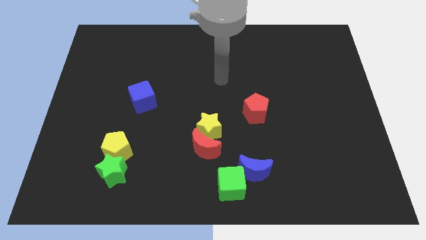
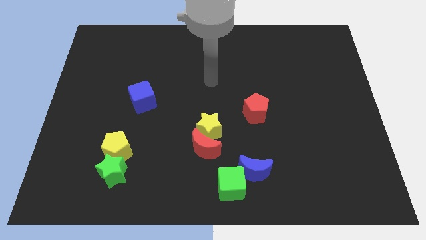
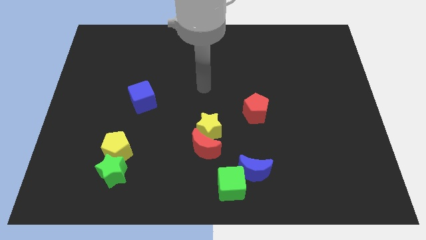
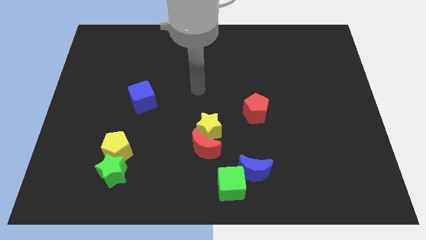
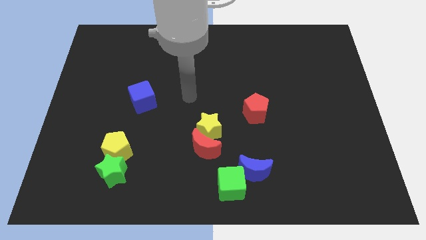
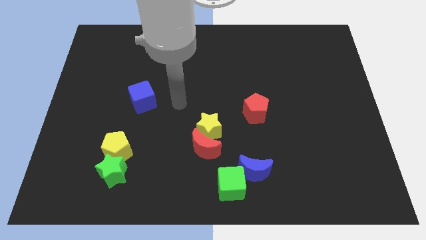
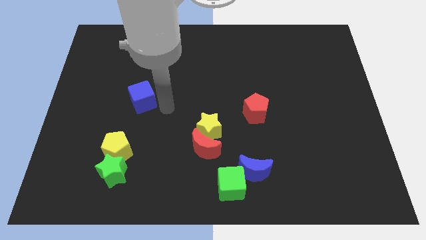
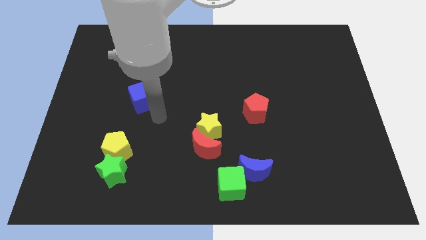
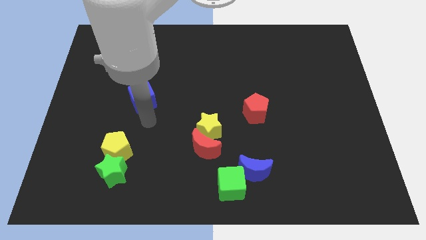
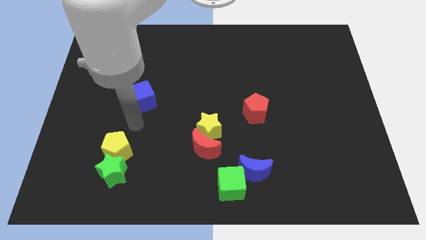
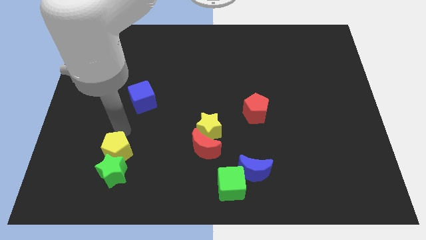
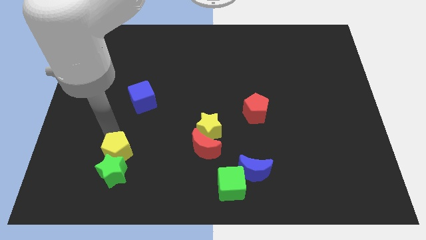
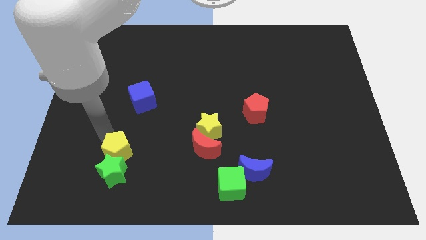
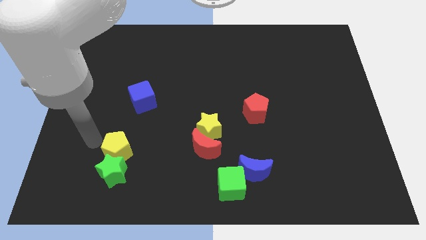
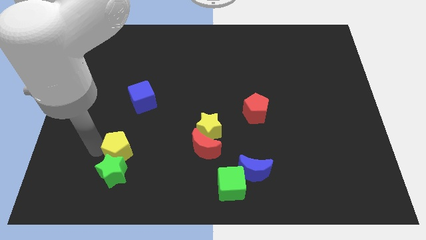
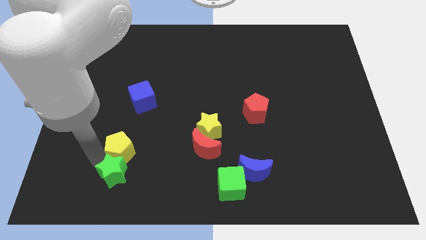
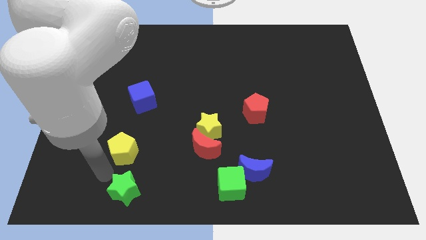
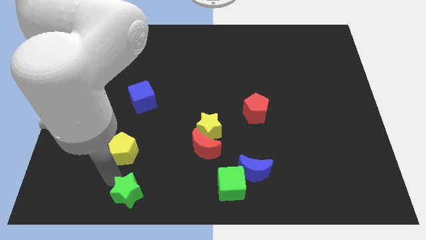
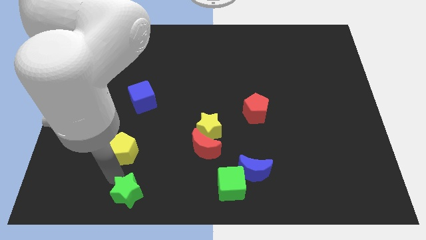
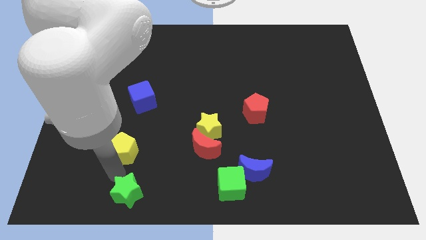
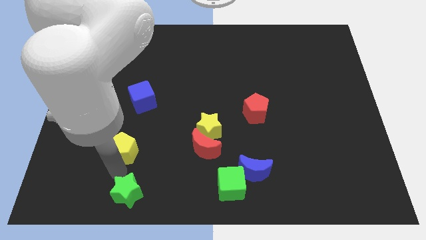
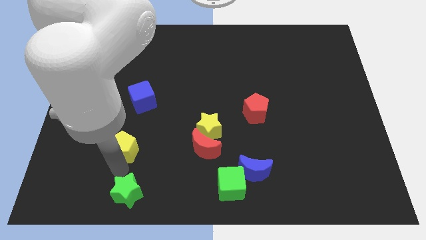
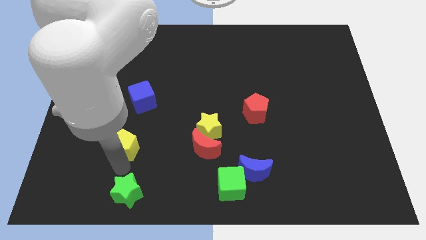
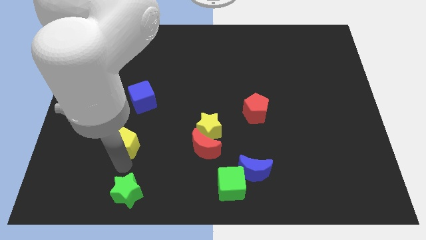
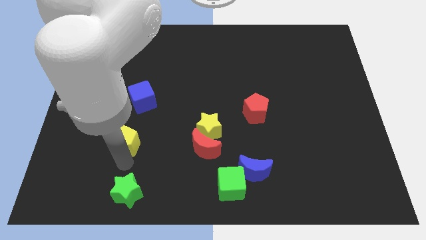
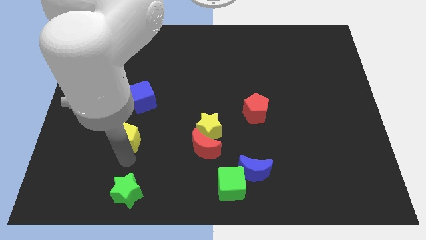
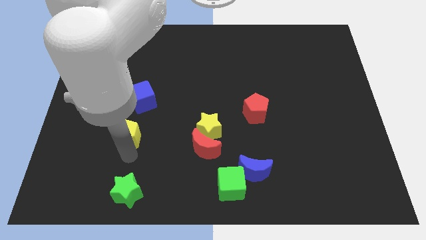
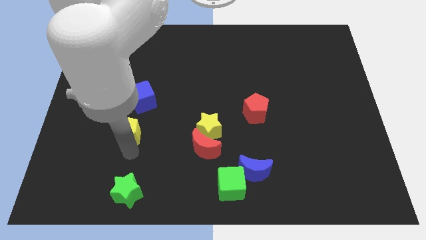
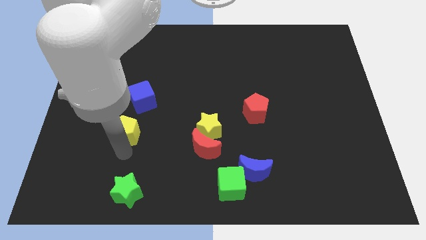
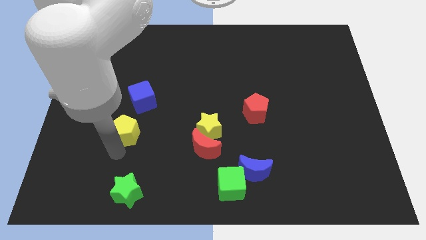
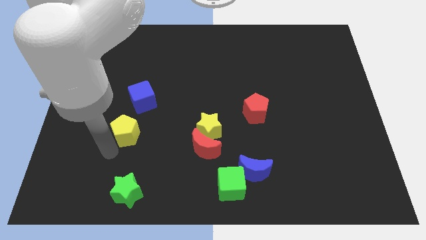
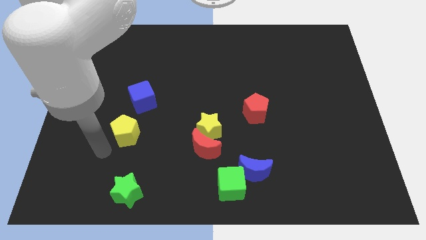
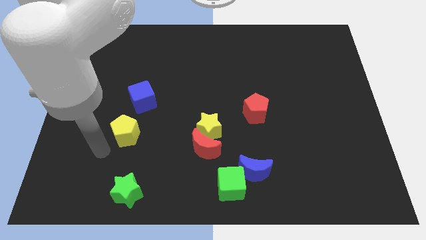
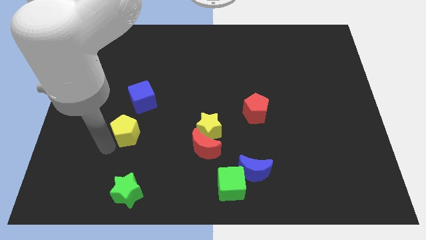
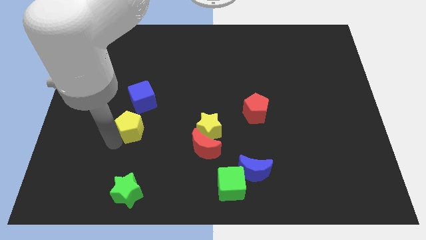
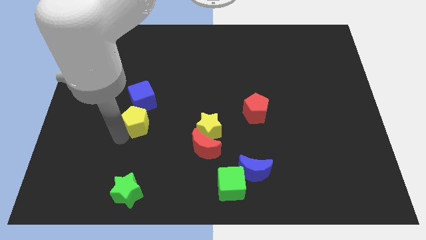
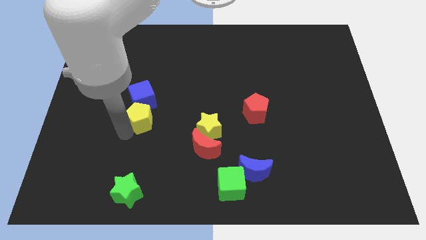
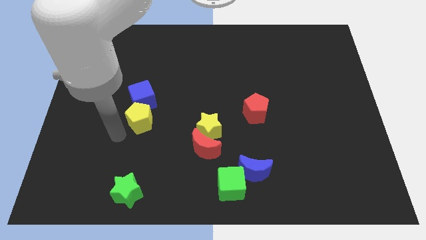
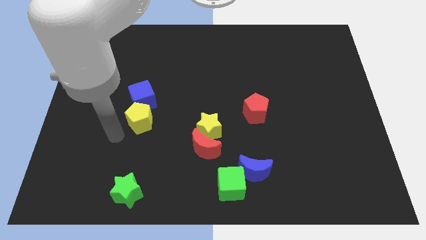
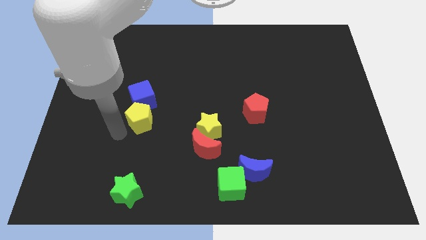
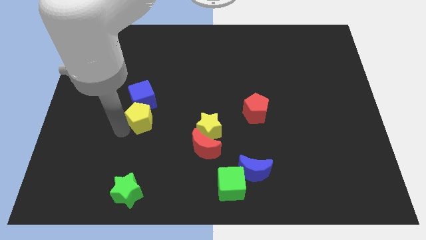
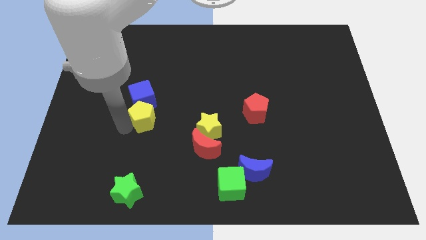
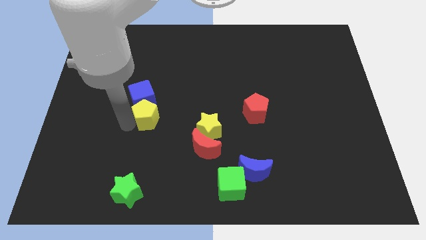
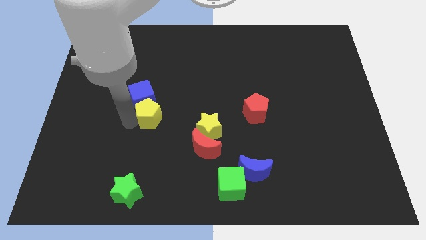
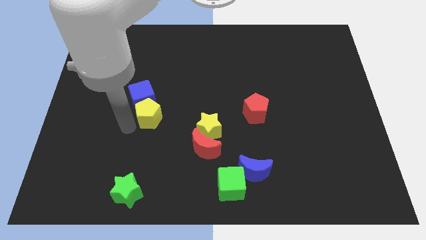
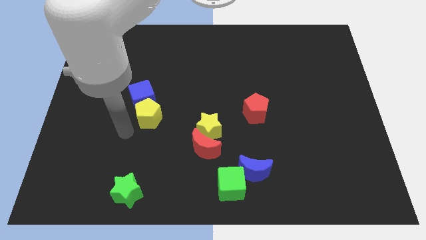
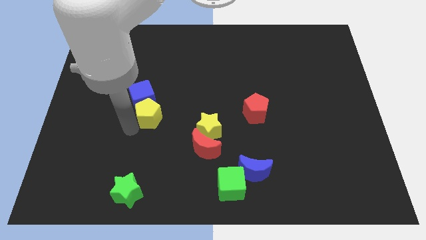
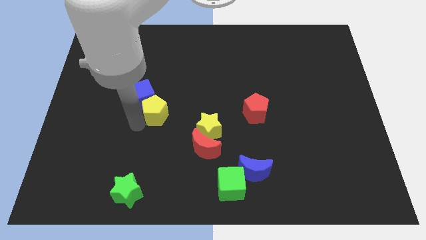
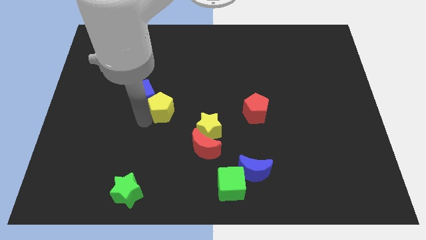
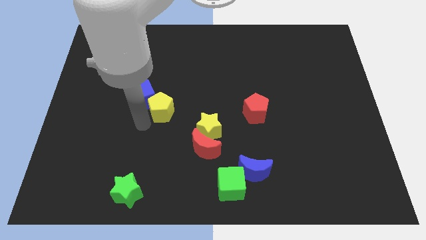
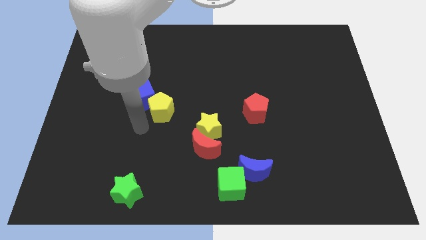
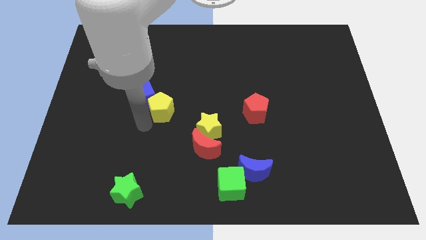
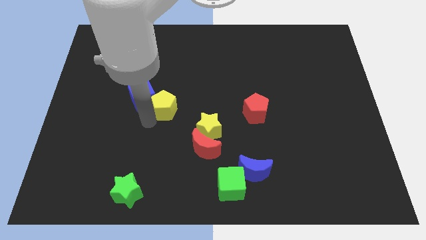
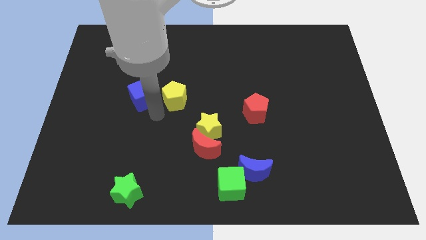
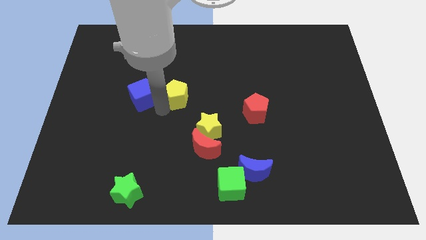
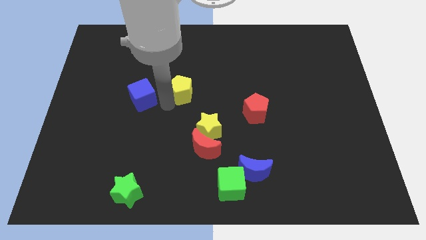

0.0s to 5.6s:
move the yellow pentagon up and then to the right

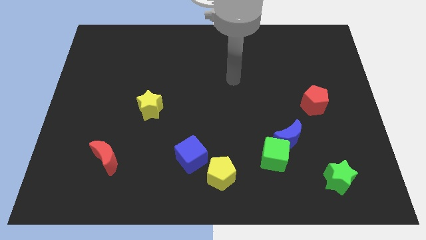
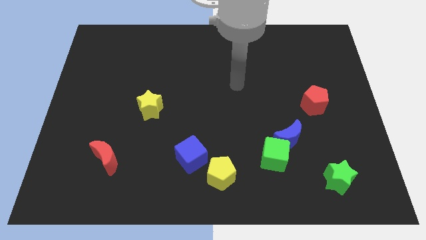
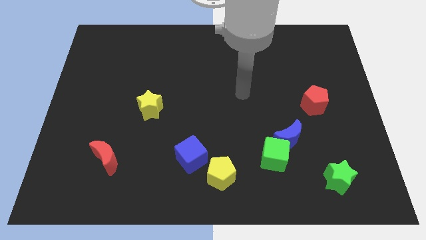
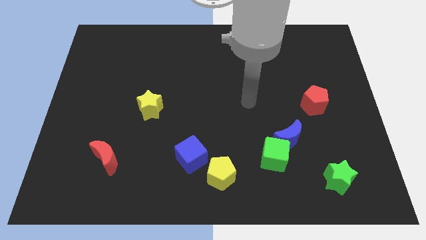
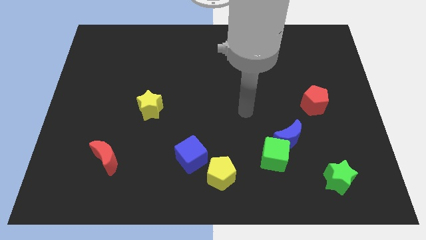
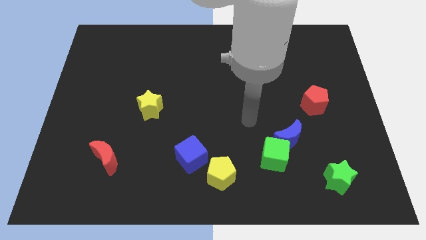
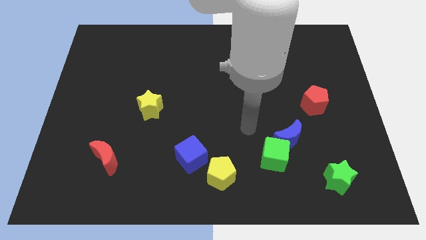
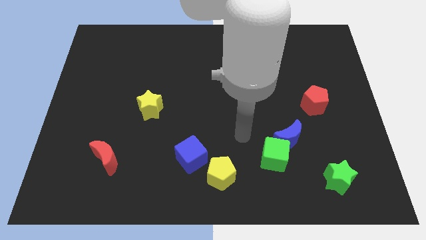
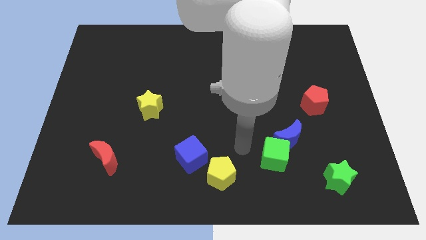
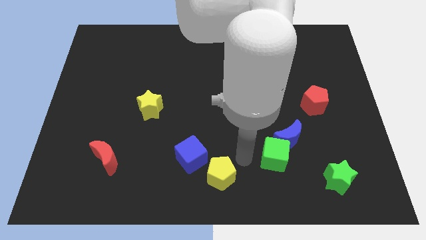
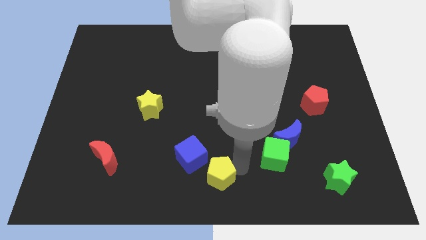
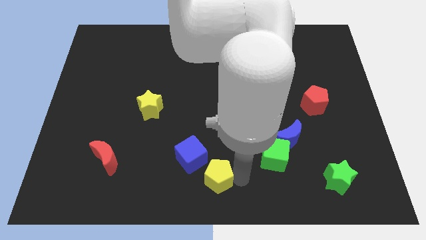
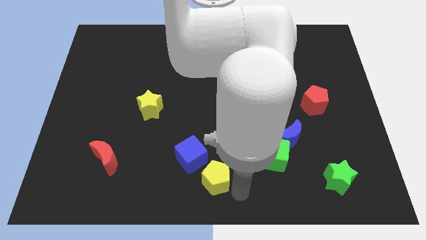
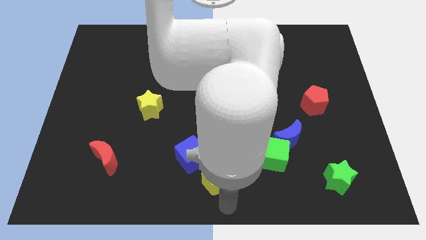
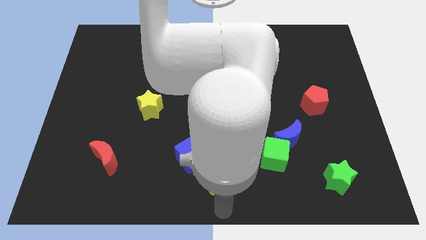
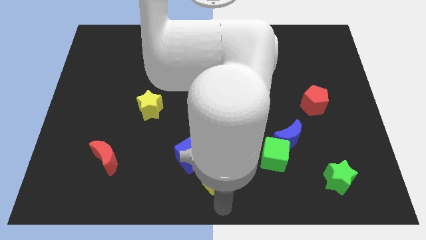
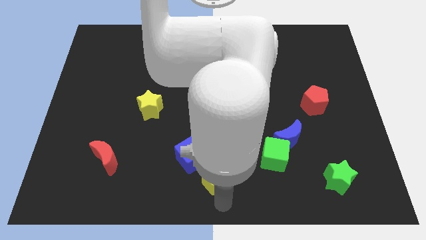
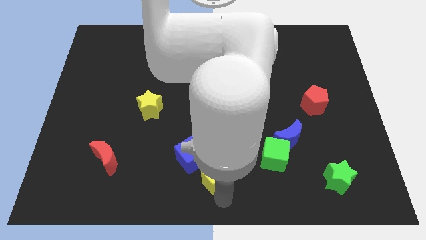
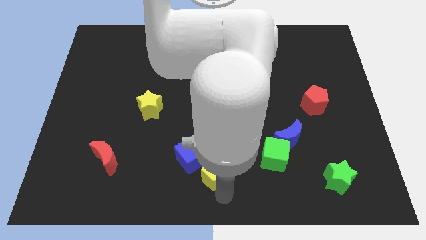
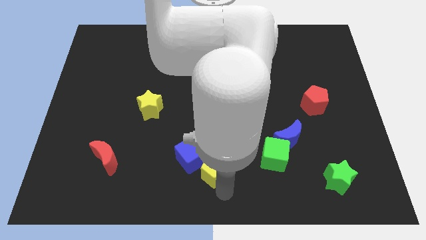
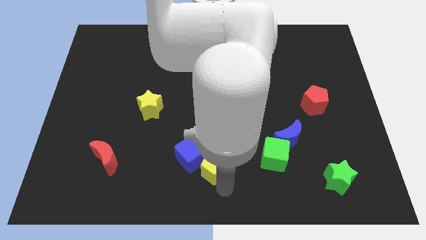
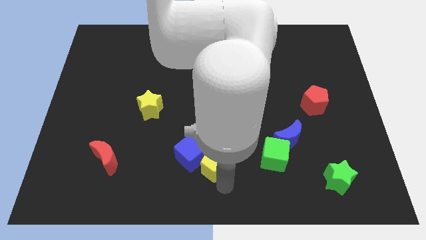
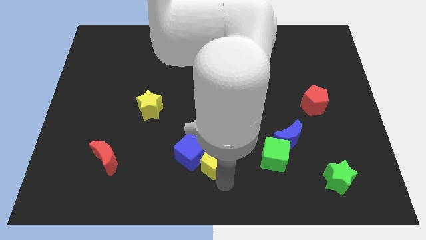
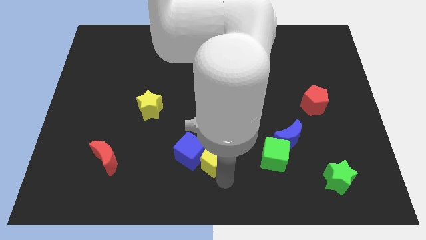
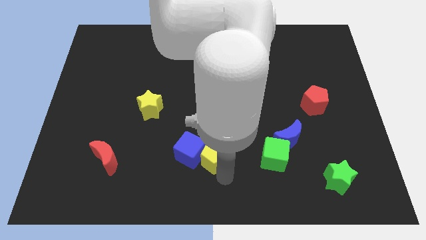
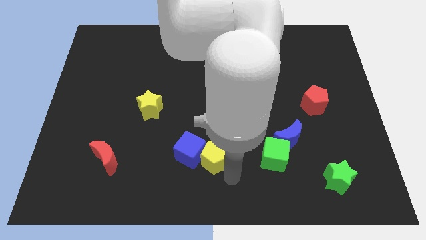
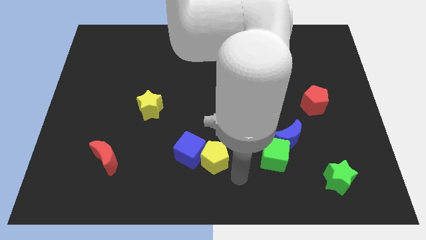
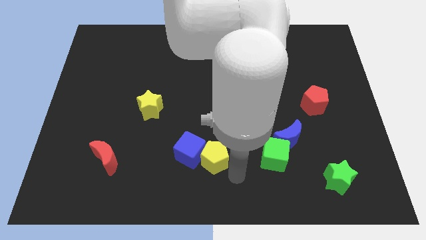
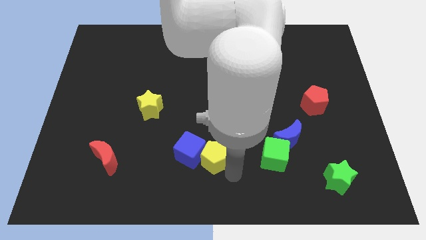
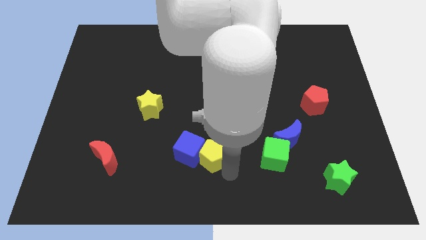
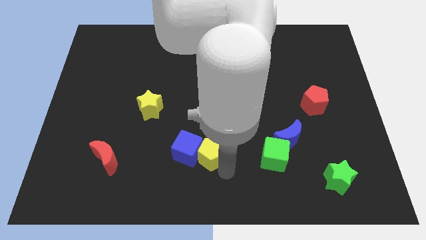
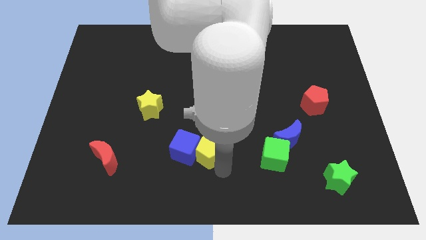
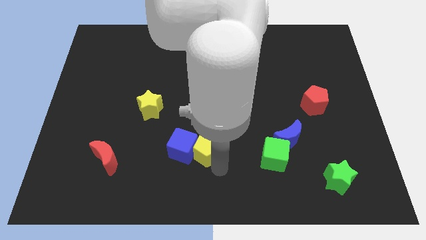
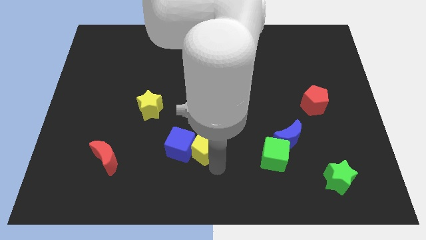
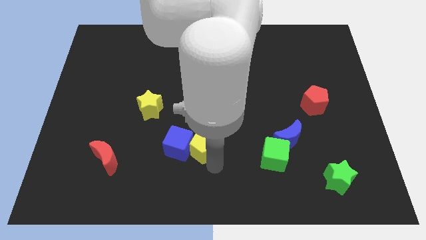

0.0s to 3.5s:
move the yellow pentagon upwards and to the left slightly
